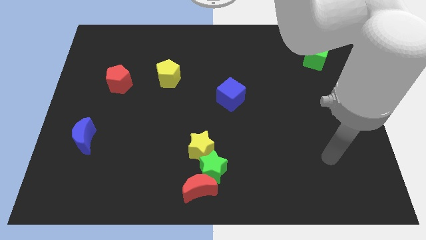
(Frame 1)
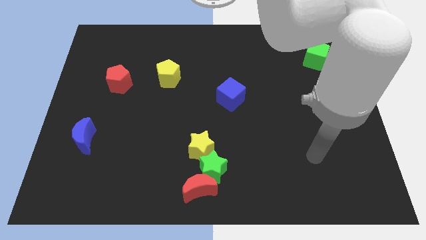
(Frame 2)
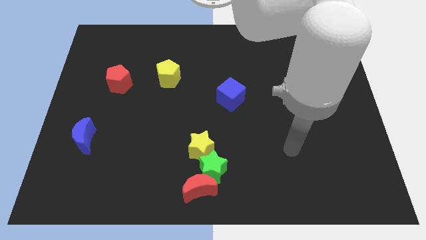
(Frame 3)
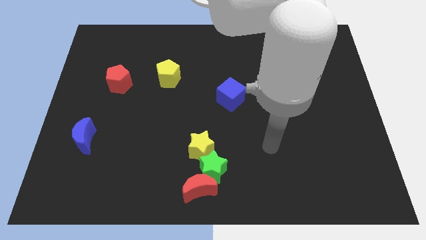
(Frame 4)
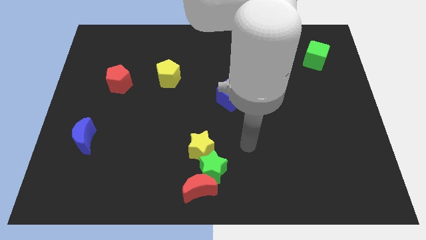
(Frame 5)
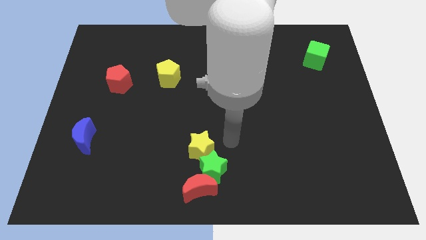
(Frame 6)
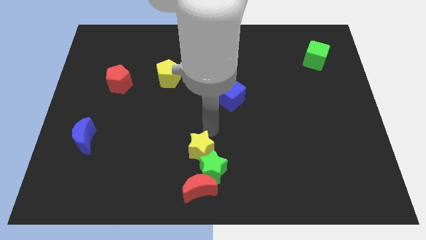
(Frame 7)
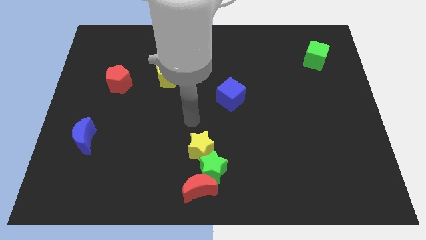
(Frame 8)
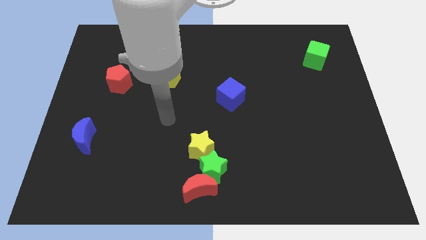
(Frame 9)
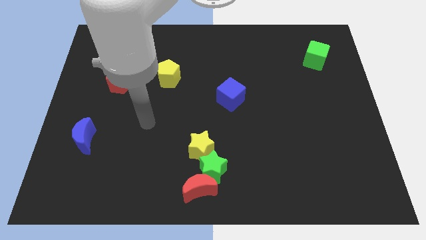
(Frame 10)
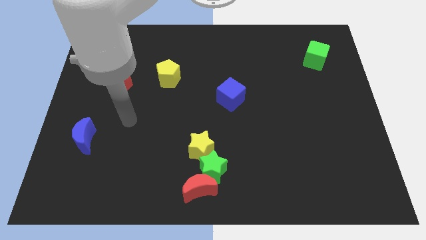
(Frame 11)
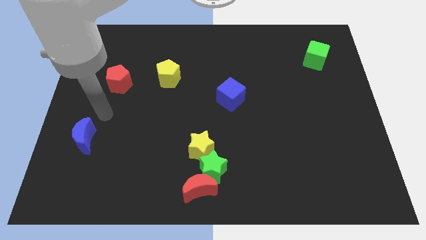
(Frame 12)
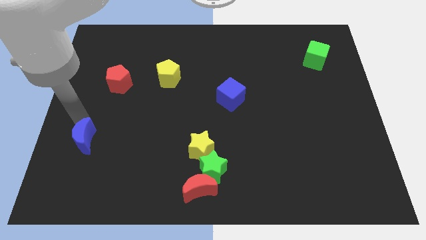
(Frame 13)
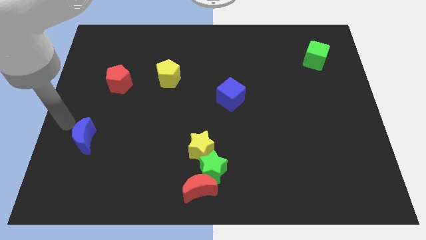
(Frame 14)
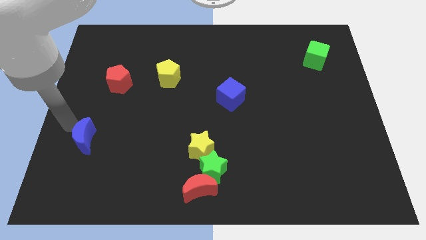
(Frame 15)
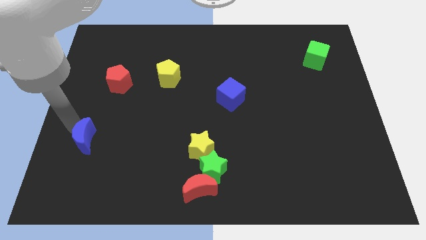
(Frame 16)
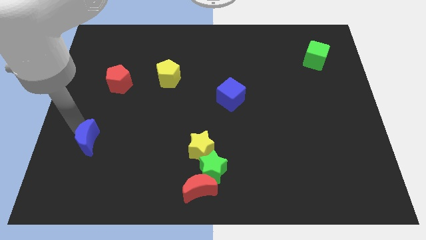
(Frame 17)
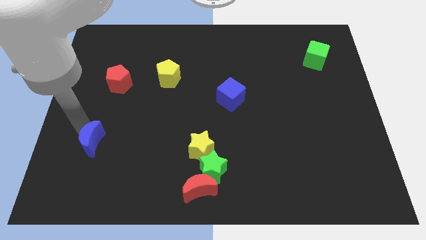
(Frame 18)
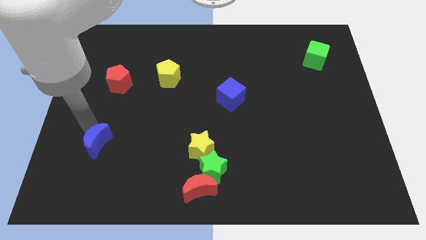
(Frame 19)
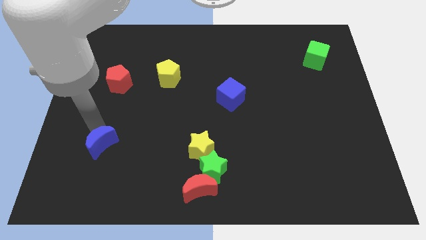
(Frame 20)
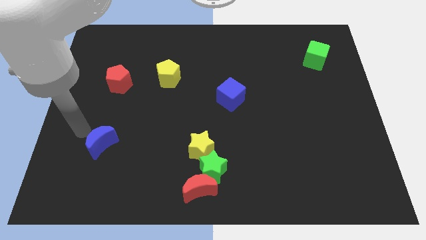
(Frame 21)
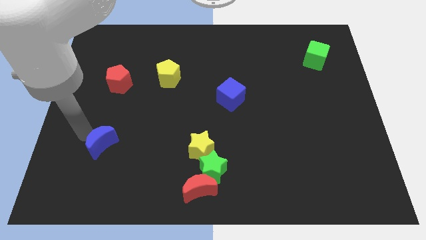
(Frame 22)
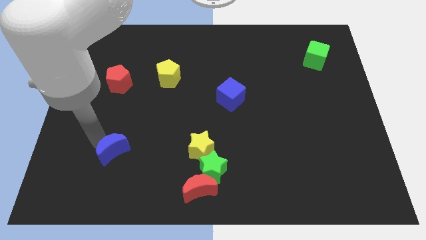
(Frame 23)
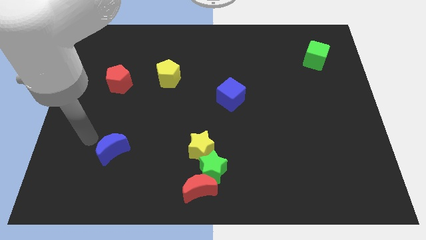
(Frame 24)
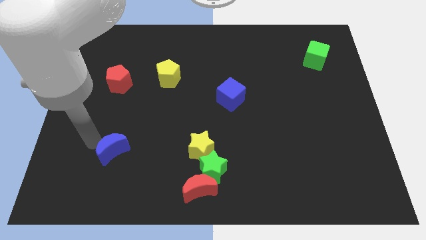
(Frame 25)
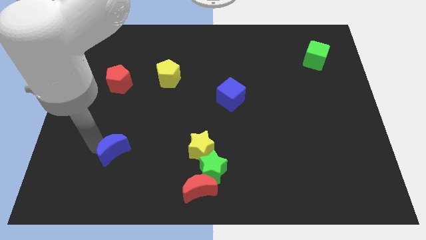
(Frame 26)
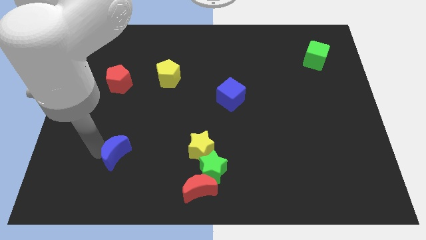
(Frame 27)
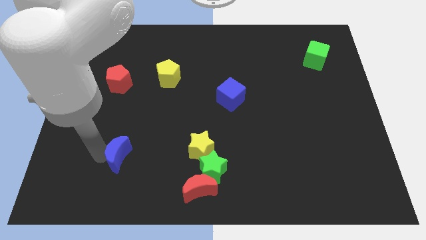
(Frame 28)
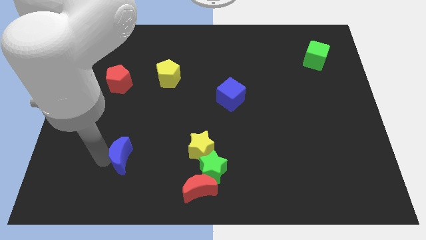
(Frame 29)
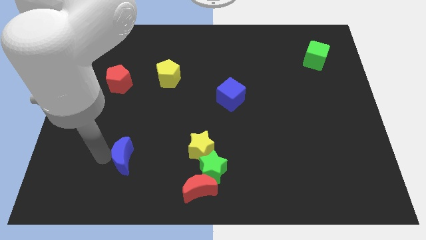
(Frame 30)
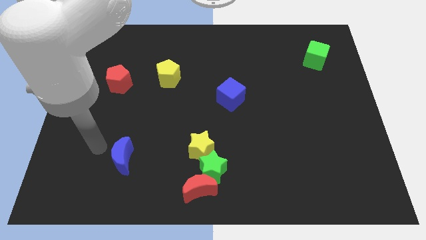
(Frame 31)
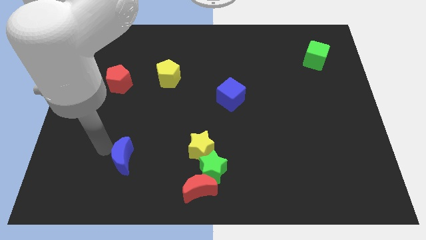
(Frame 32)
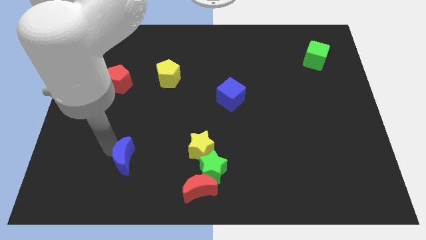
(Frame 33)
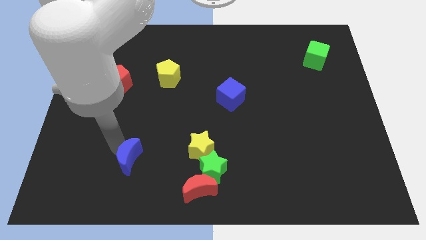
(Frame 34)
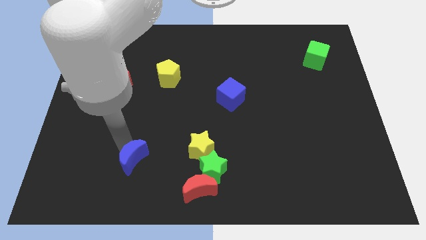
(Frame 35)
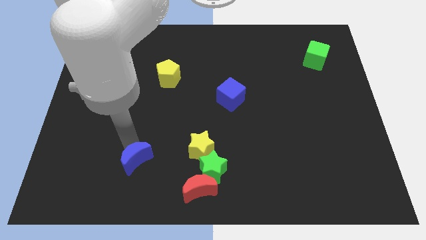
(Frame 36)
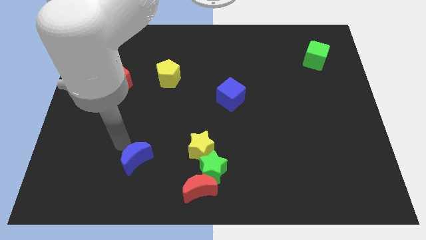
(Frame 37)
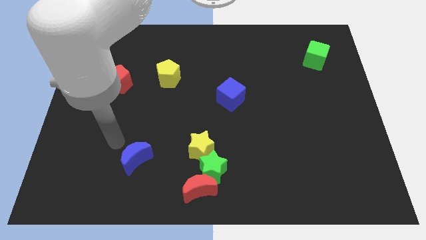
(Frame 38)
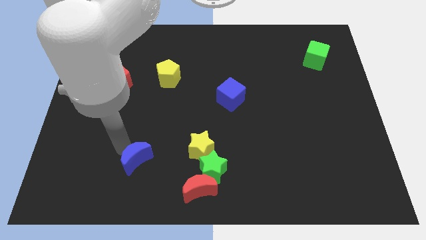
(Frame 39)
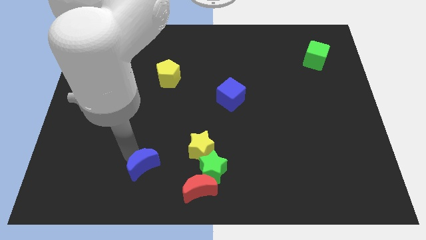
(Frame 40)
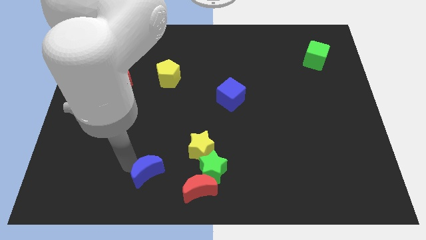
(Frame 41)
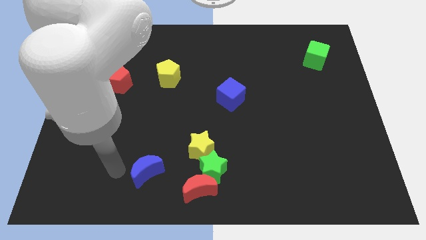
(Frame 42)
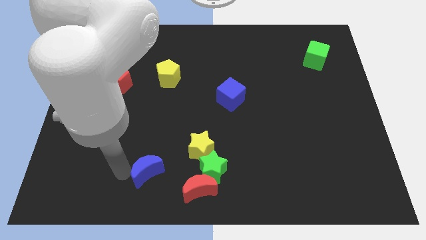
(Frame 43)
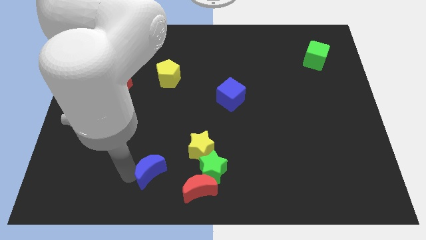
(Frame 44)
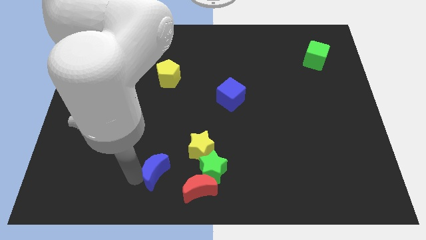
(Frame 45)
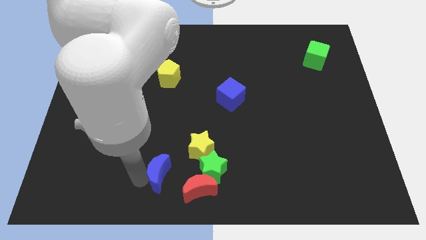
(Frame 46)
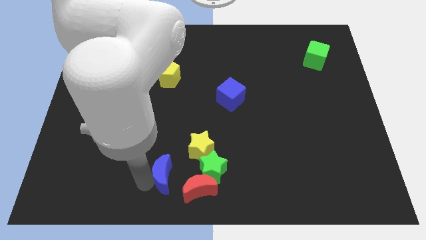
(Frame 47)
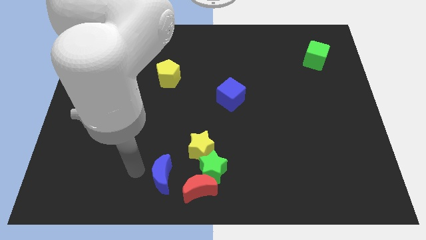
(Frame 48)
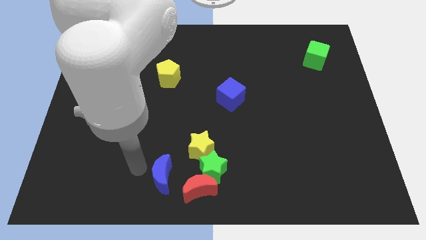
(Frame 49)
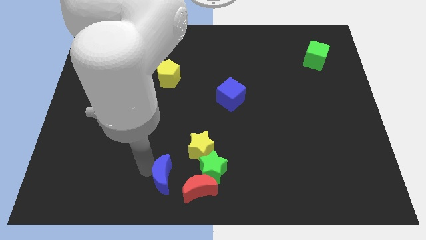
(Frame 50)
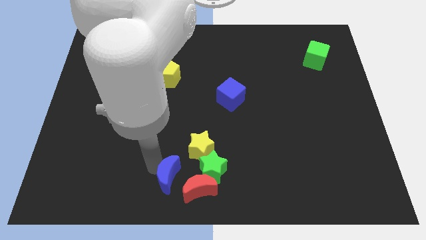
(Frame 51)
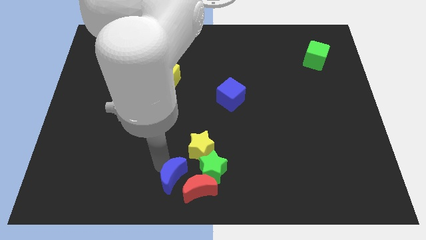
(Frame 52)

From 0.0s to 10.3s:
put the blue moon next to the red moon

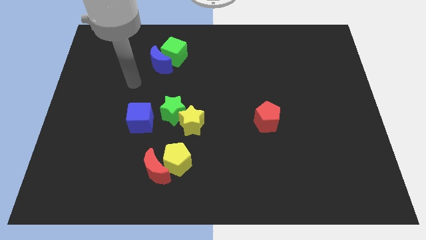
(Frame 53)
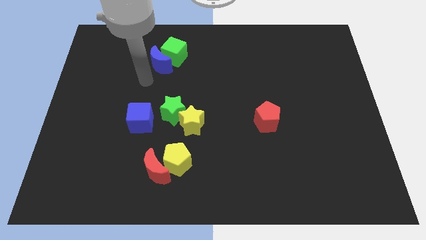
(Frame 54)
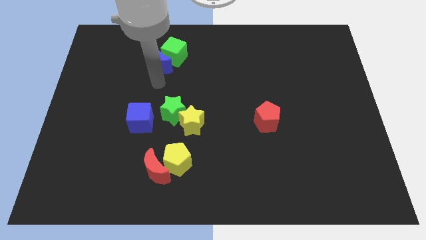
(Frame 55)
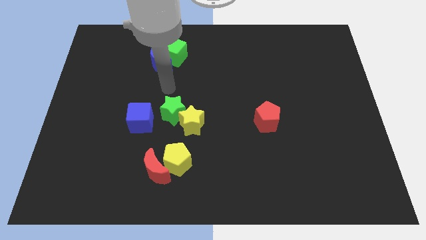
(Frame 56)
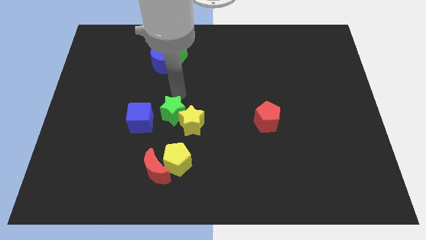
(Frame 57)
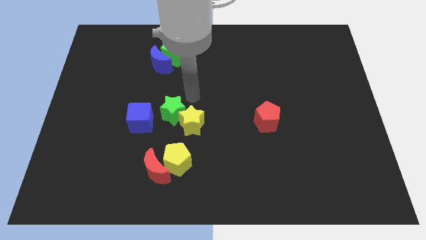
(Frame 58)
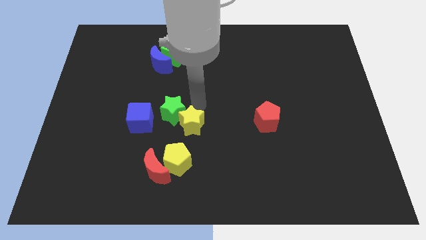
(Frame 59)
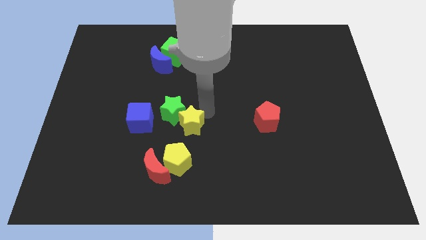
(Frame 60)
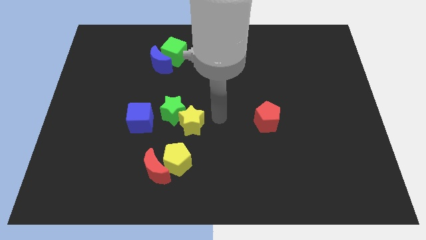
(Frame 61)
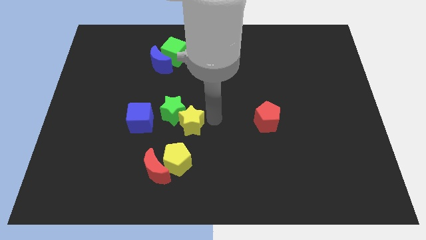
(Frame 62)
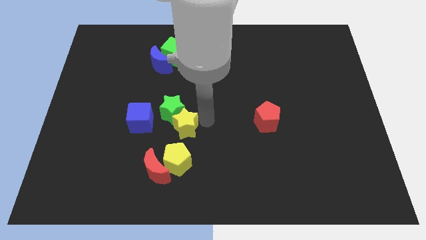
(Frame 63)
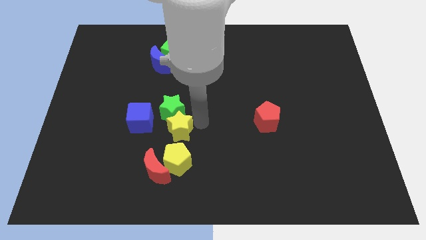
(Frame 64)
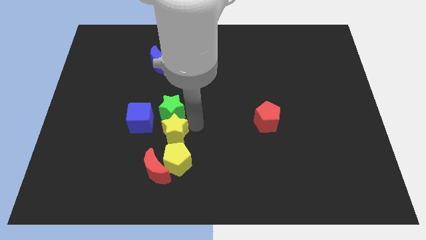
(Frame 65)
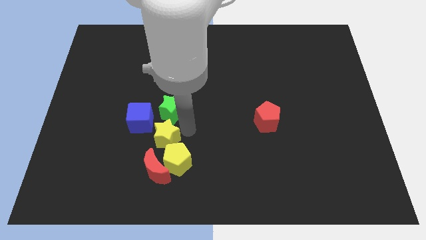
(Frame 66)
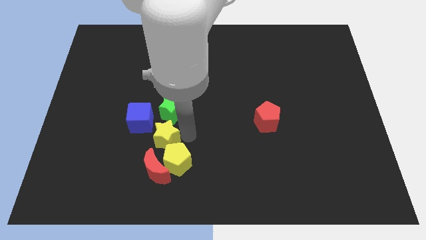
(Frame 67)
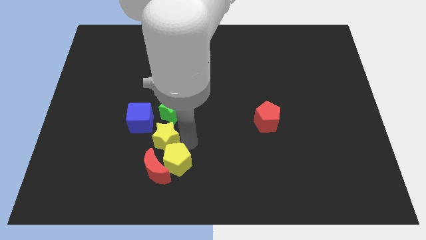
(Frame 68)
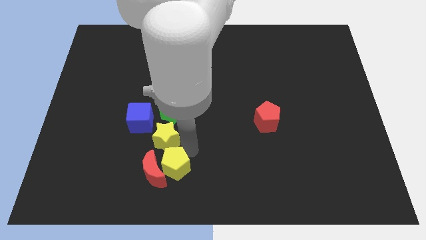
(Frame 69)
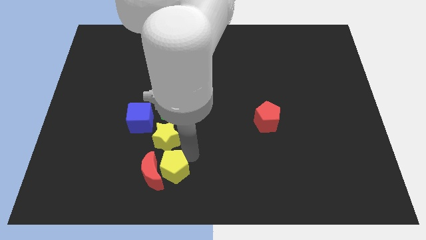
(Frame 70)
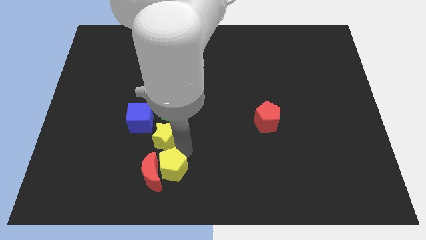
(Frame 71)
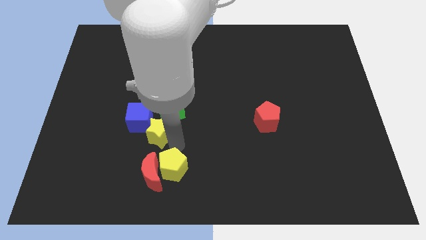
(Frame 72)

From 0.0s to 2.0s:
push the yellow star to the blue cube

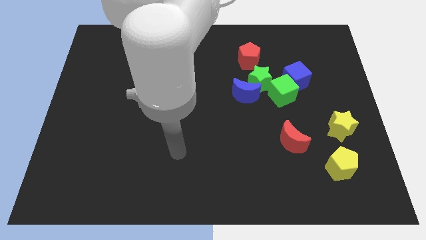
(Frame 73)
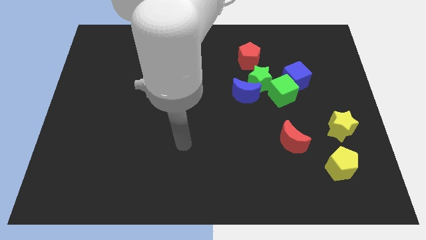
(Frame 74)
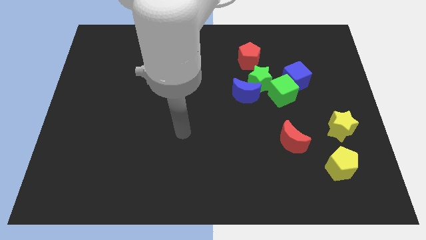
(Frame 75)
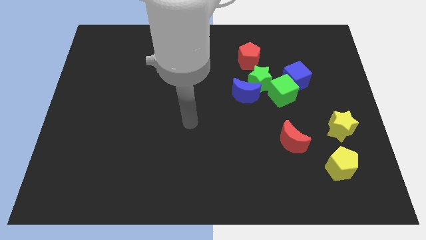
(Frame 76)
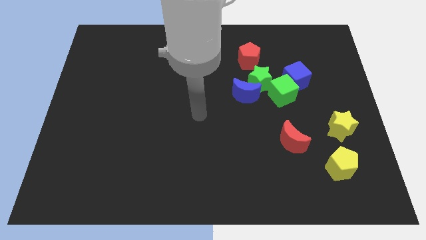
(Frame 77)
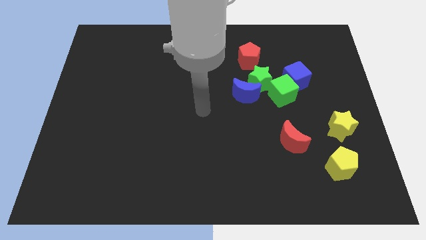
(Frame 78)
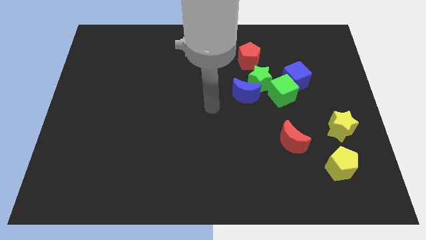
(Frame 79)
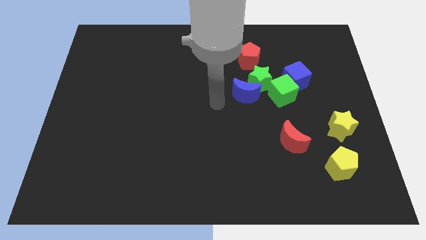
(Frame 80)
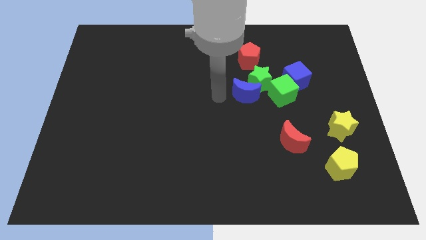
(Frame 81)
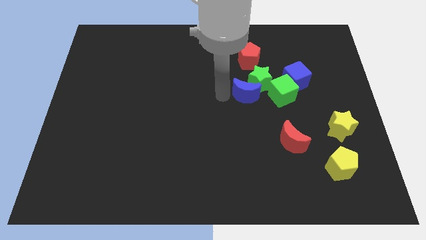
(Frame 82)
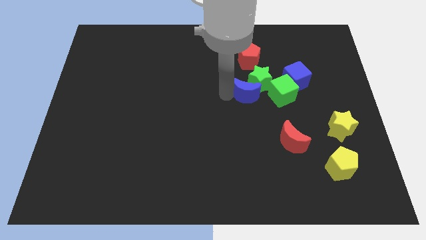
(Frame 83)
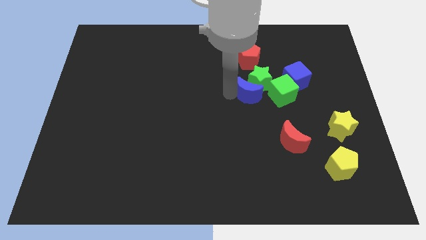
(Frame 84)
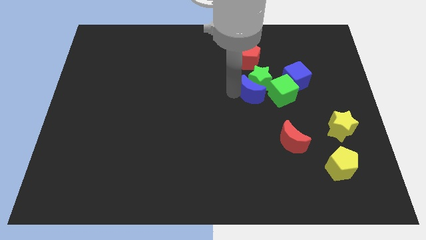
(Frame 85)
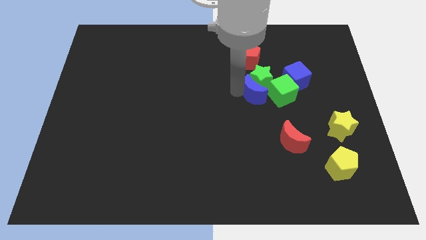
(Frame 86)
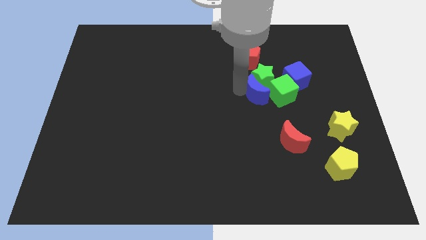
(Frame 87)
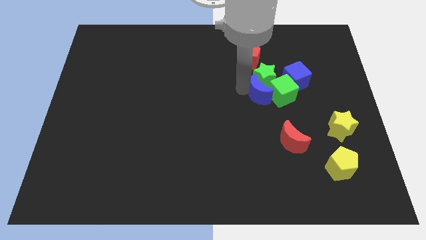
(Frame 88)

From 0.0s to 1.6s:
put the blue moon towards the green cube
